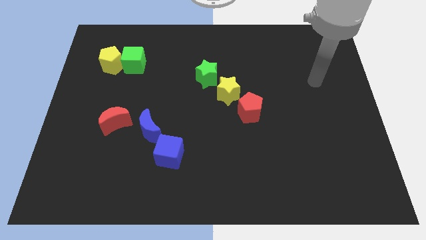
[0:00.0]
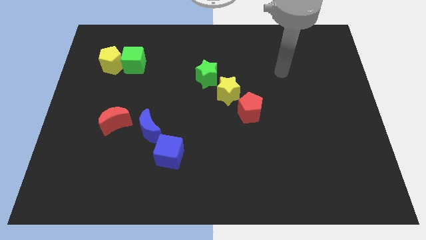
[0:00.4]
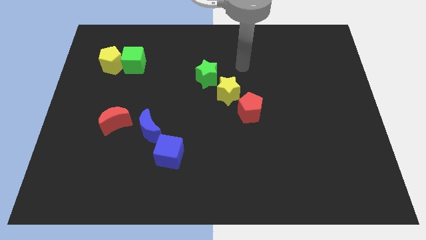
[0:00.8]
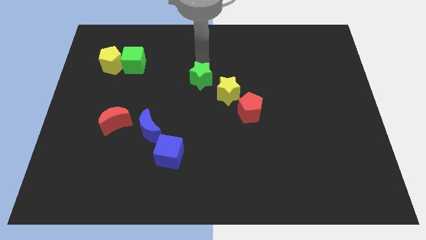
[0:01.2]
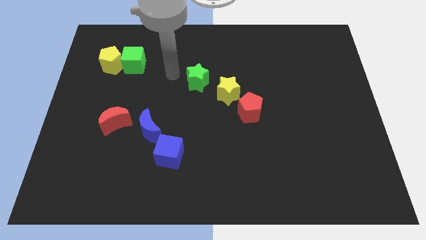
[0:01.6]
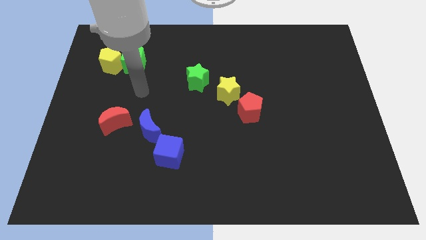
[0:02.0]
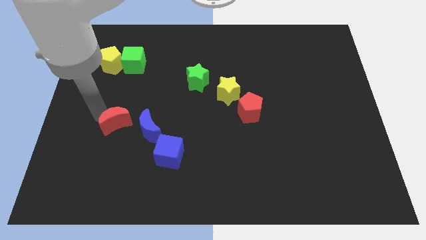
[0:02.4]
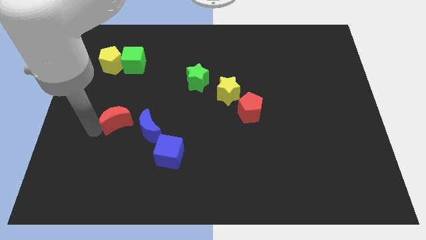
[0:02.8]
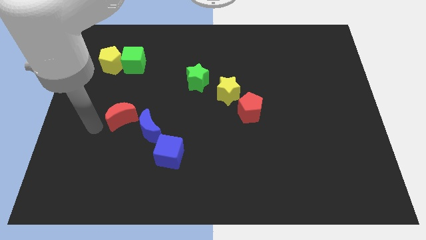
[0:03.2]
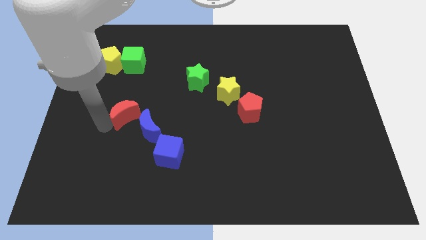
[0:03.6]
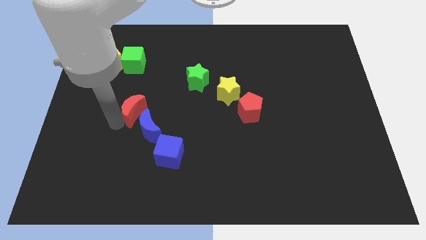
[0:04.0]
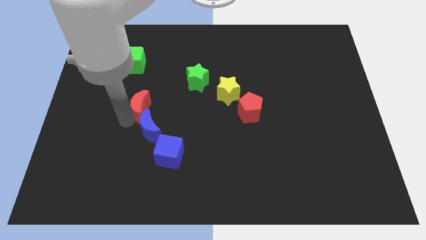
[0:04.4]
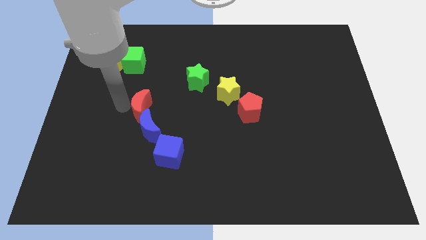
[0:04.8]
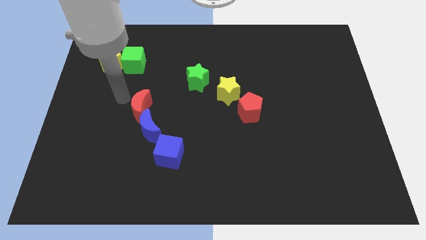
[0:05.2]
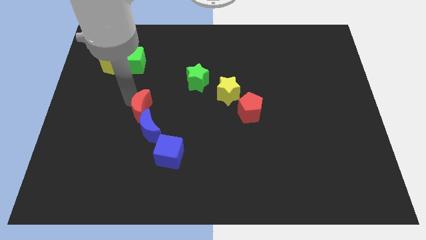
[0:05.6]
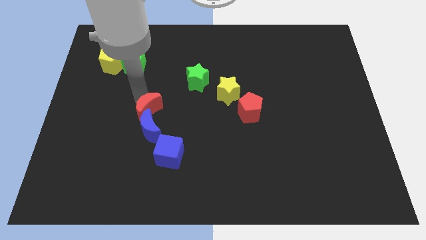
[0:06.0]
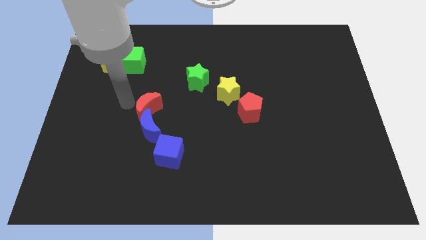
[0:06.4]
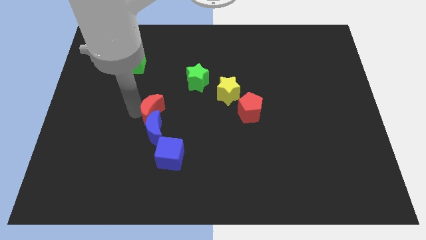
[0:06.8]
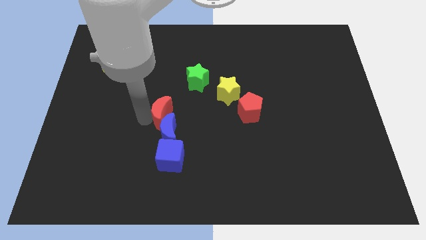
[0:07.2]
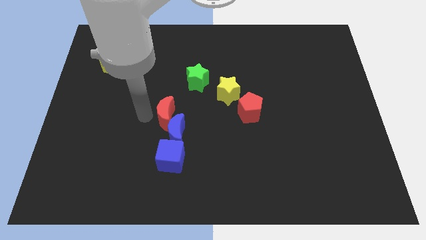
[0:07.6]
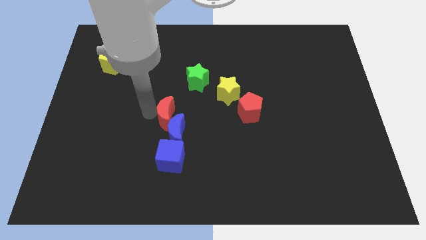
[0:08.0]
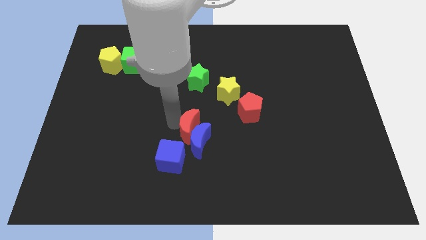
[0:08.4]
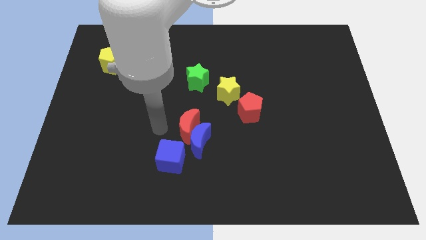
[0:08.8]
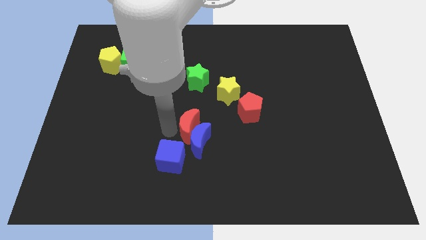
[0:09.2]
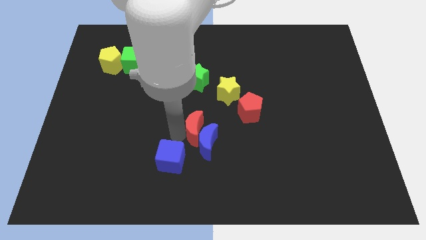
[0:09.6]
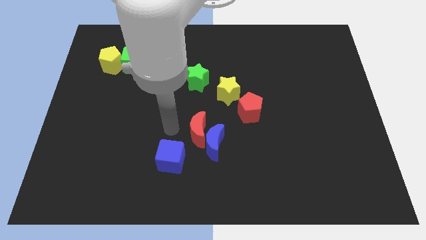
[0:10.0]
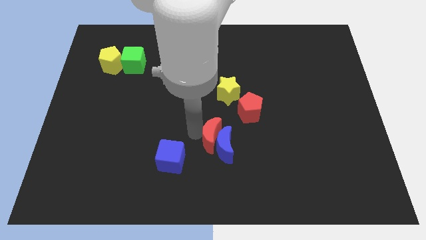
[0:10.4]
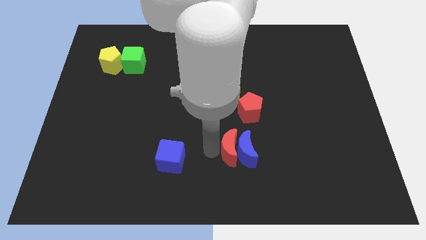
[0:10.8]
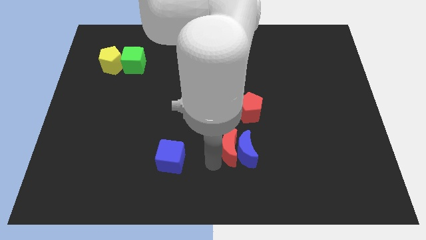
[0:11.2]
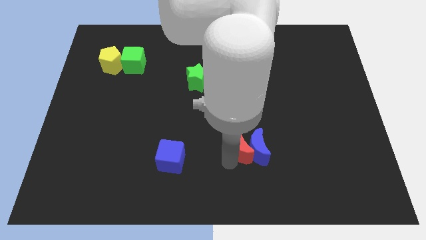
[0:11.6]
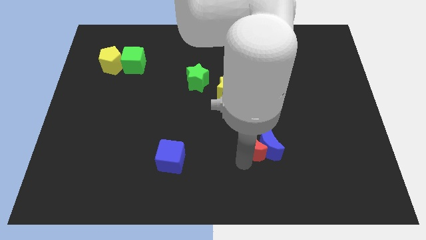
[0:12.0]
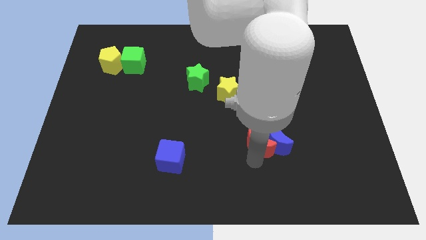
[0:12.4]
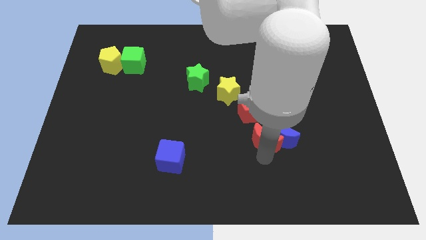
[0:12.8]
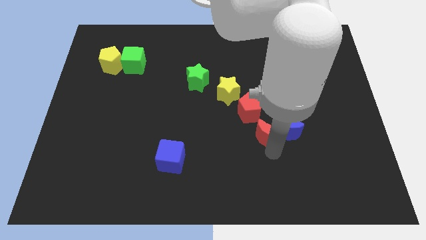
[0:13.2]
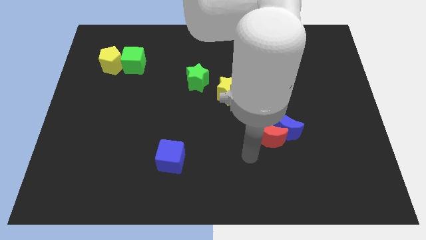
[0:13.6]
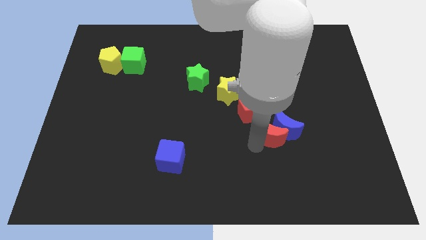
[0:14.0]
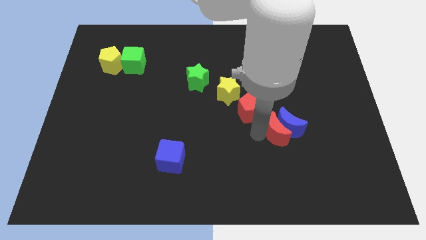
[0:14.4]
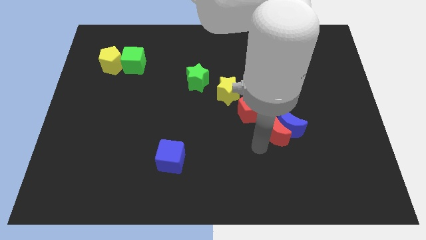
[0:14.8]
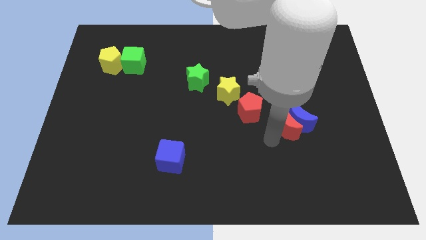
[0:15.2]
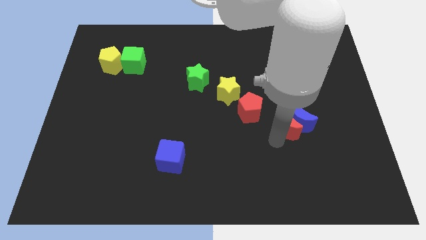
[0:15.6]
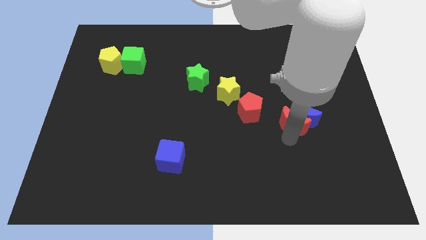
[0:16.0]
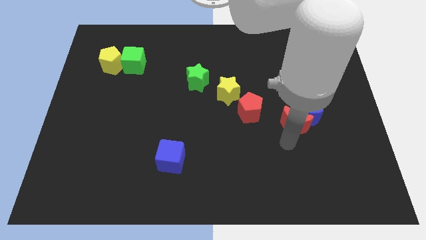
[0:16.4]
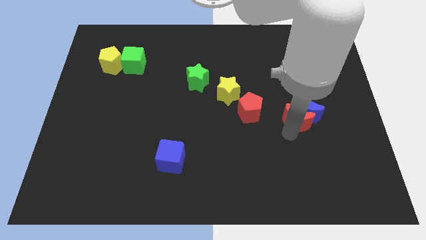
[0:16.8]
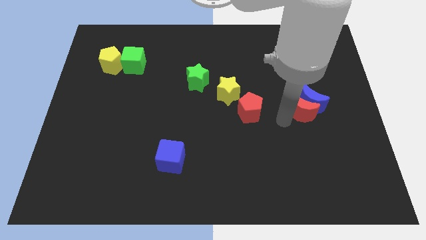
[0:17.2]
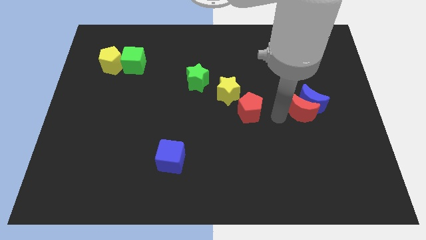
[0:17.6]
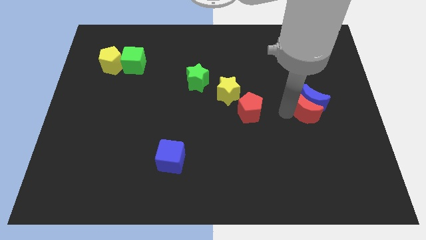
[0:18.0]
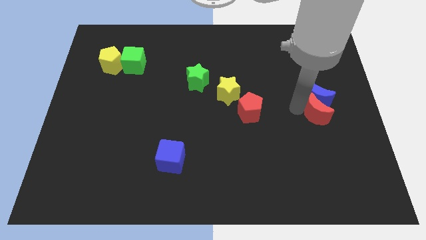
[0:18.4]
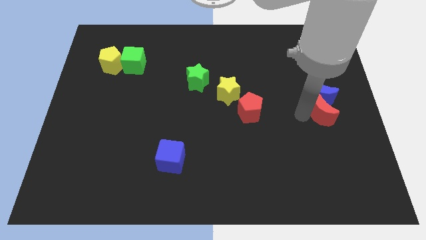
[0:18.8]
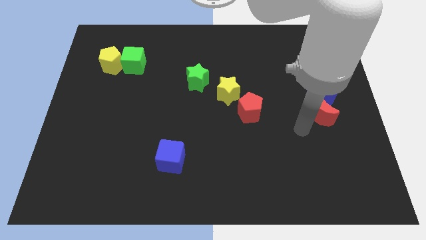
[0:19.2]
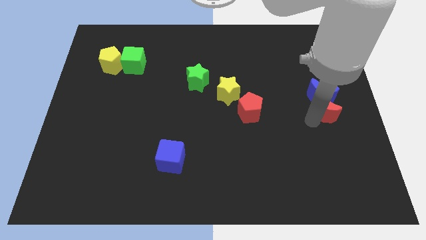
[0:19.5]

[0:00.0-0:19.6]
move the red moon to the right side

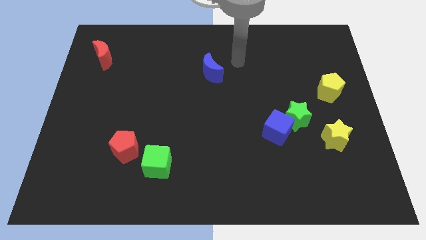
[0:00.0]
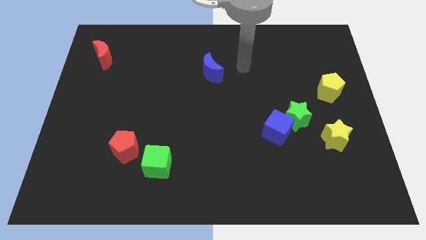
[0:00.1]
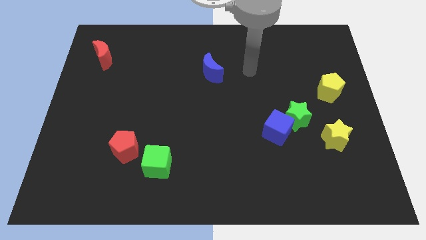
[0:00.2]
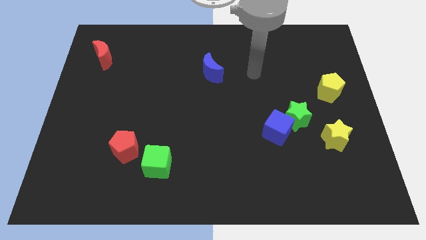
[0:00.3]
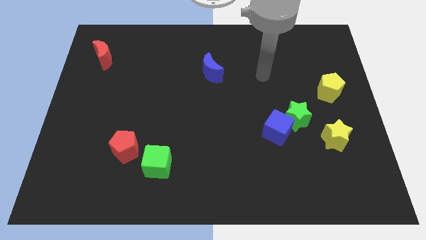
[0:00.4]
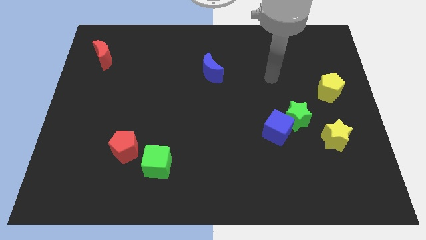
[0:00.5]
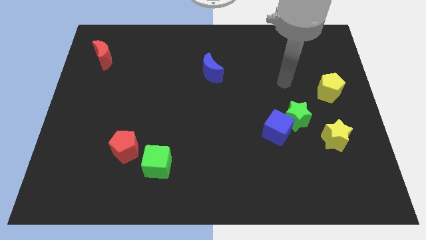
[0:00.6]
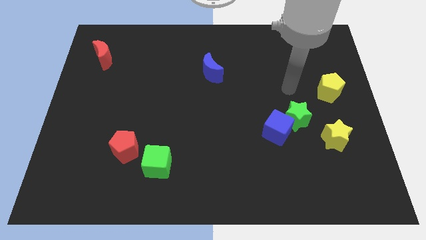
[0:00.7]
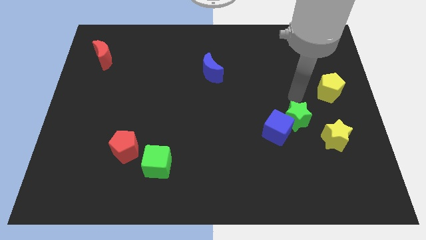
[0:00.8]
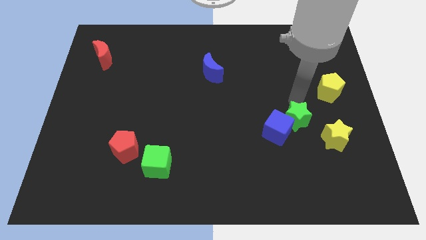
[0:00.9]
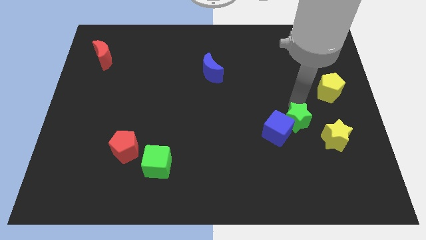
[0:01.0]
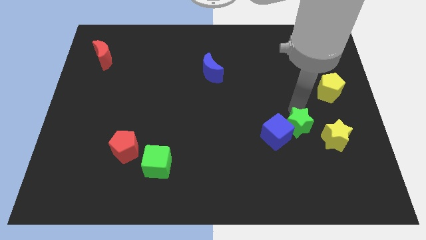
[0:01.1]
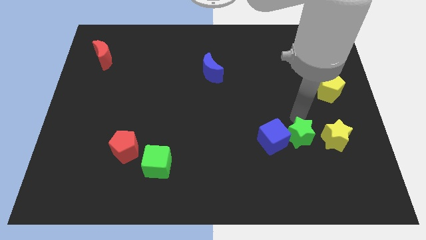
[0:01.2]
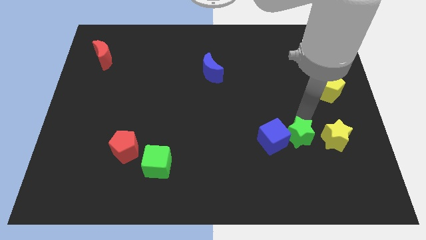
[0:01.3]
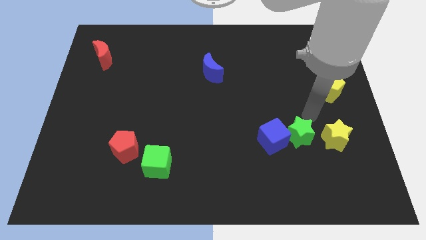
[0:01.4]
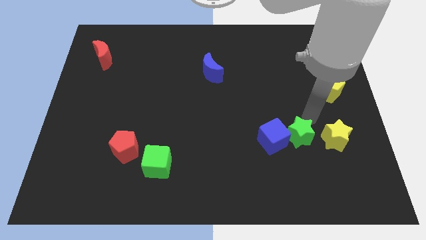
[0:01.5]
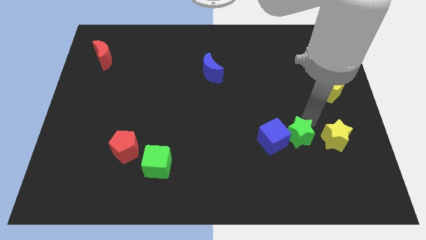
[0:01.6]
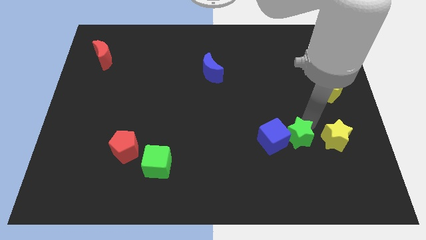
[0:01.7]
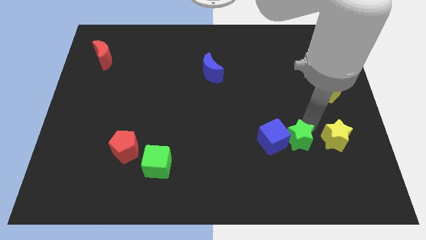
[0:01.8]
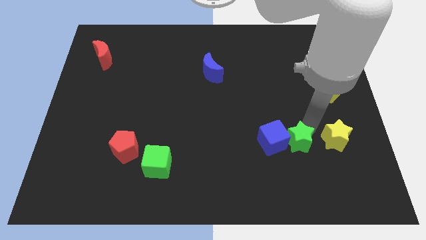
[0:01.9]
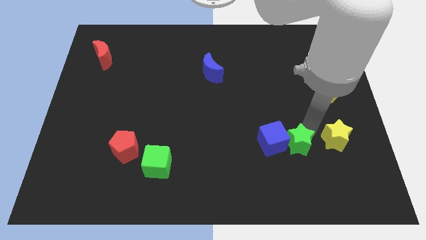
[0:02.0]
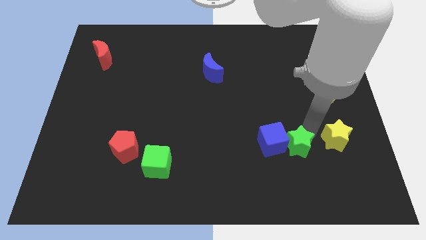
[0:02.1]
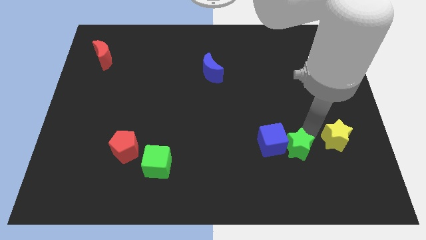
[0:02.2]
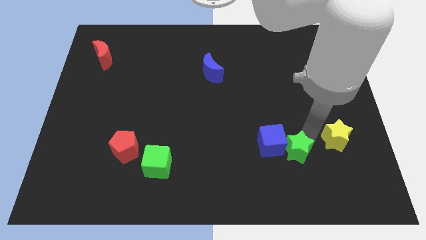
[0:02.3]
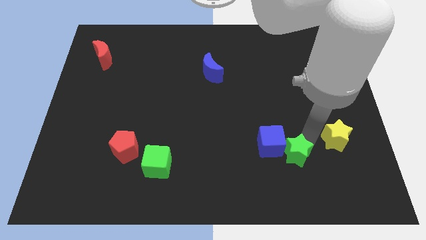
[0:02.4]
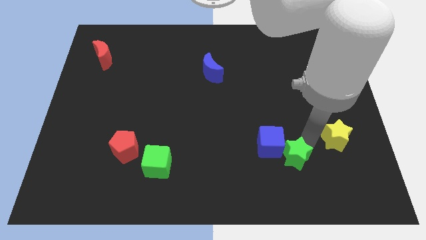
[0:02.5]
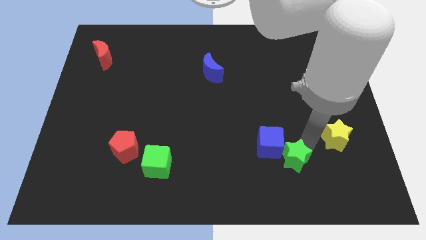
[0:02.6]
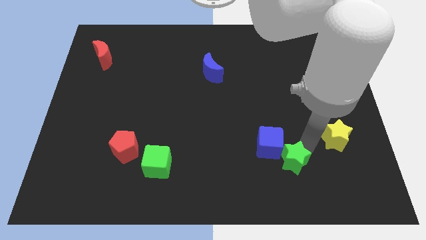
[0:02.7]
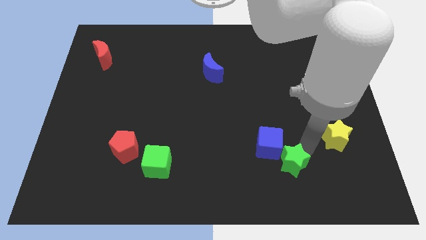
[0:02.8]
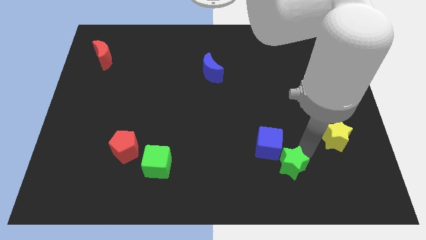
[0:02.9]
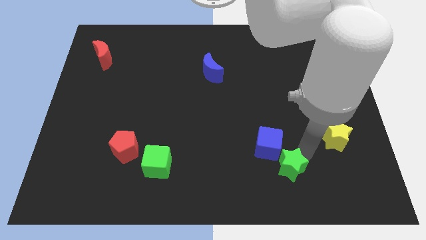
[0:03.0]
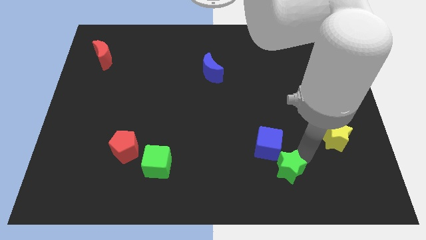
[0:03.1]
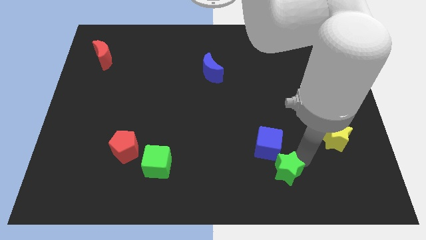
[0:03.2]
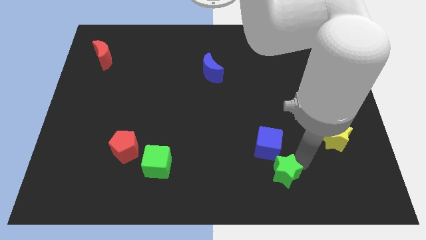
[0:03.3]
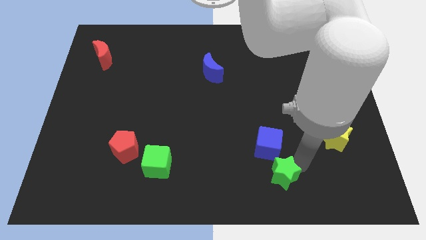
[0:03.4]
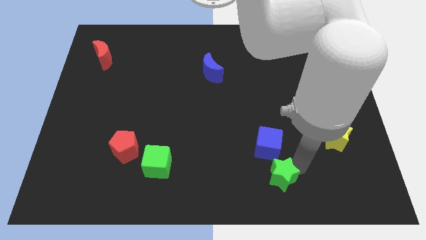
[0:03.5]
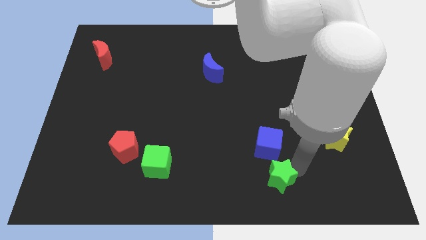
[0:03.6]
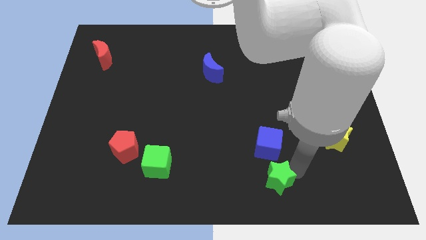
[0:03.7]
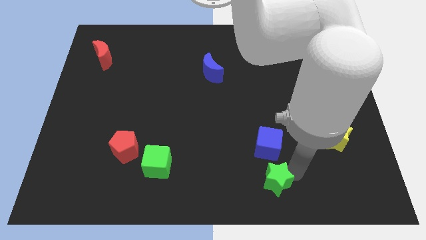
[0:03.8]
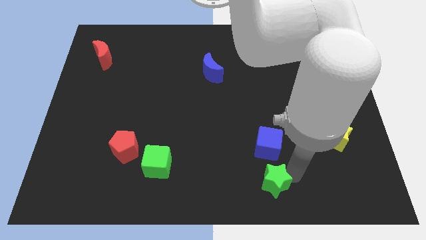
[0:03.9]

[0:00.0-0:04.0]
put the green star to the bottom
